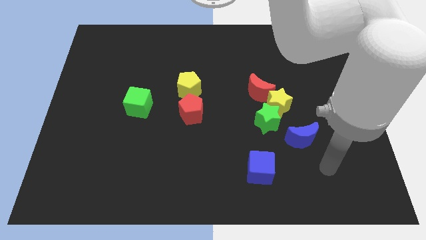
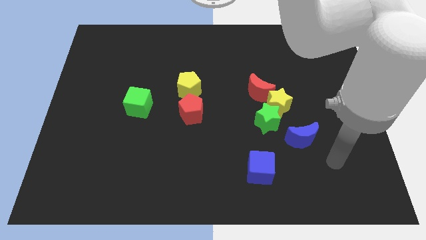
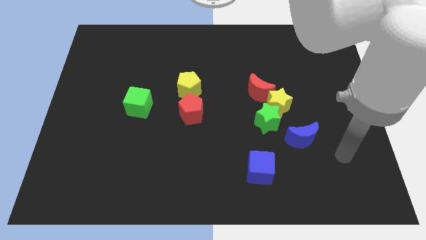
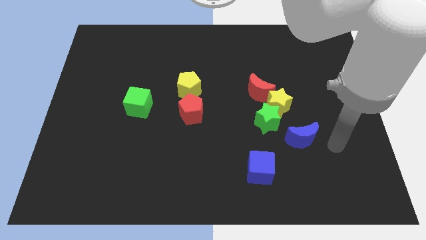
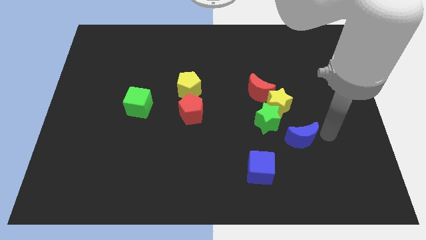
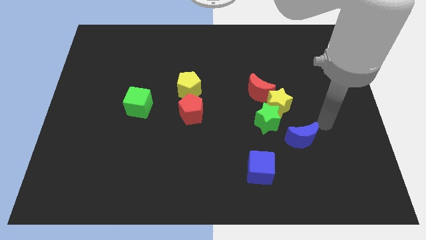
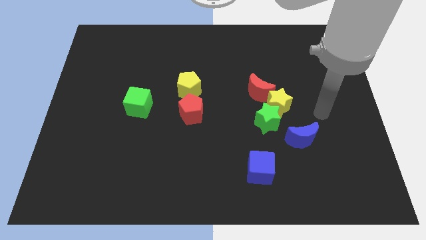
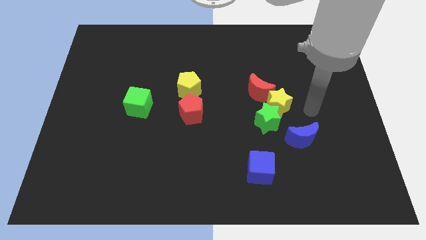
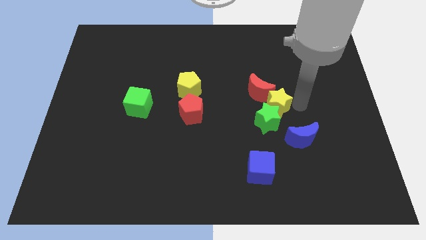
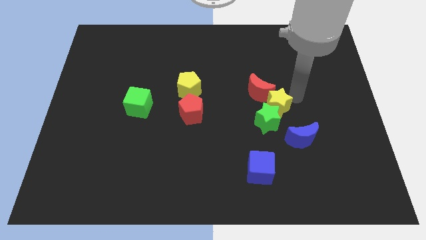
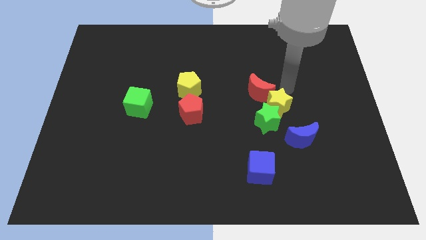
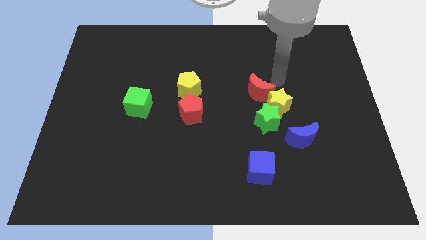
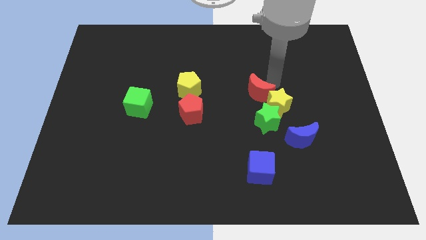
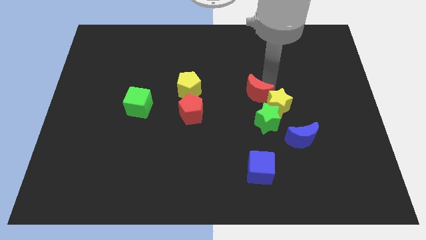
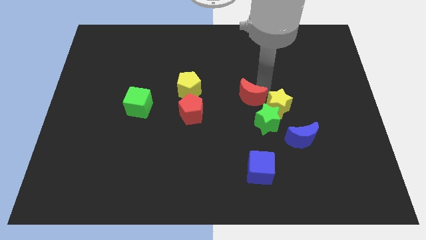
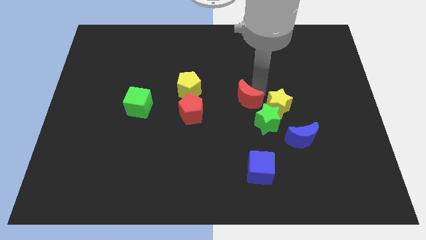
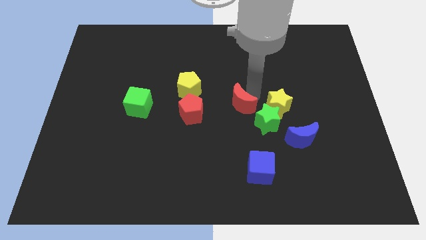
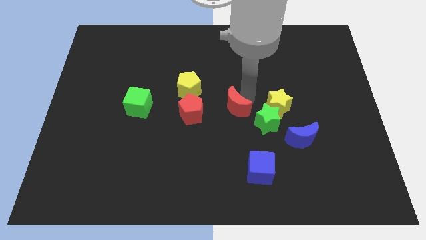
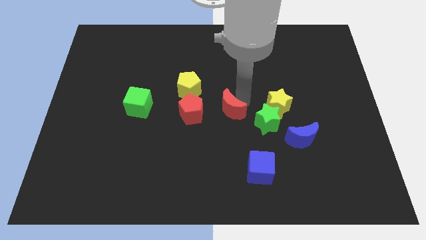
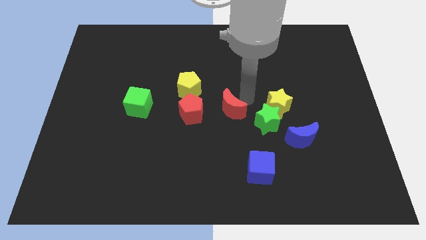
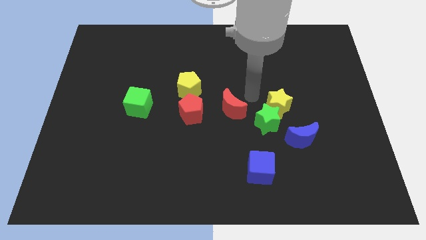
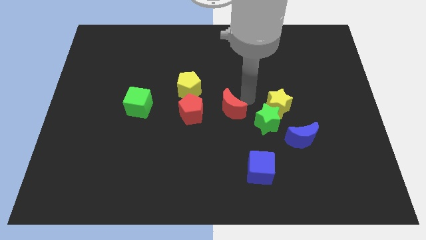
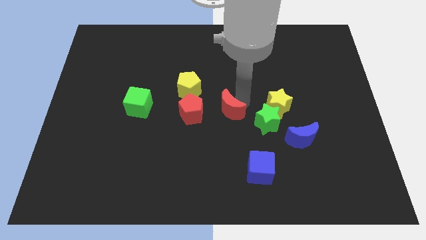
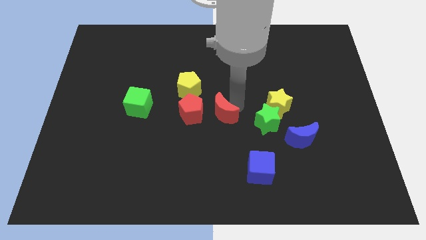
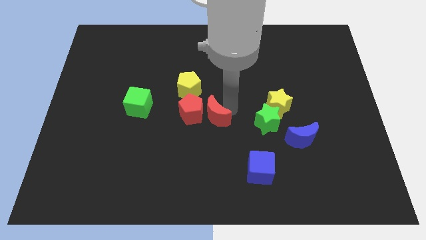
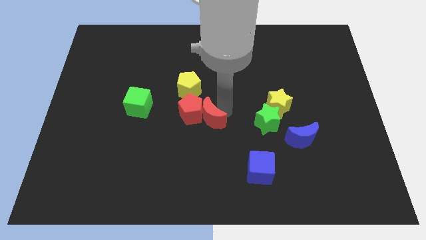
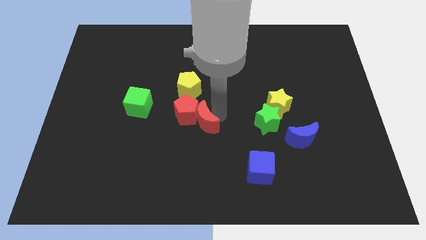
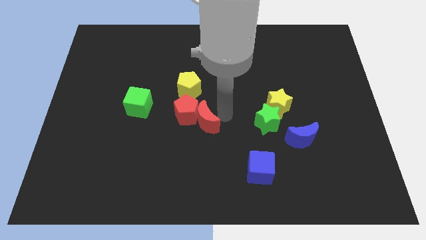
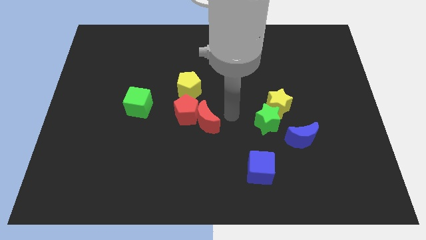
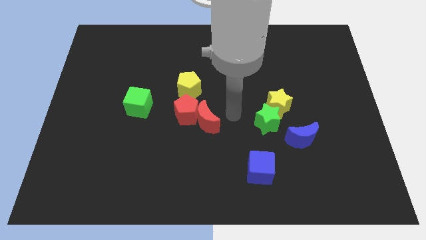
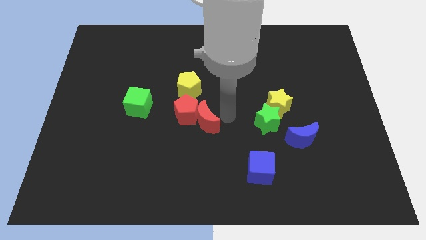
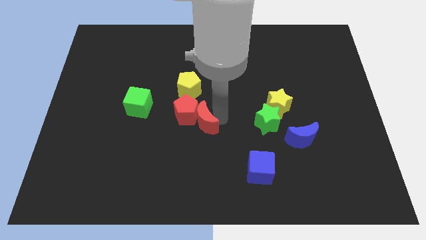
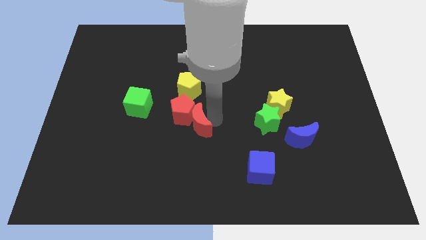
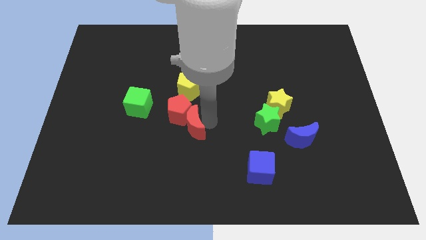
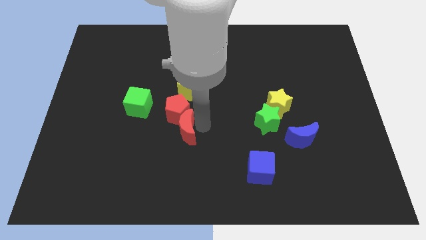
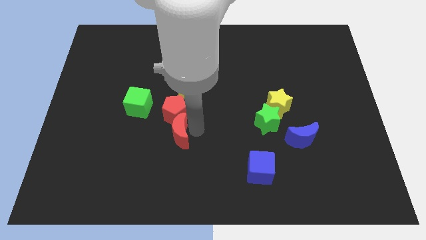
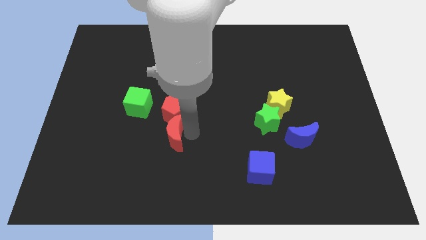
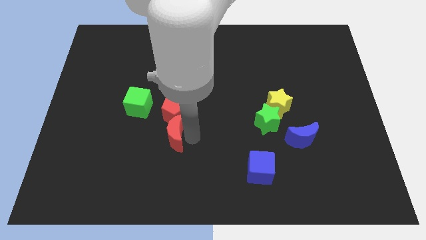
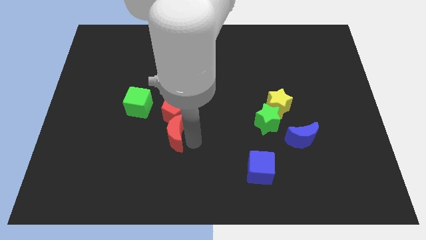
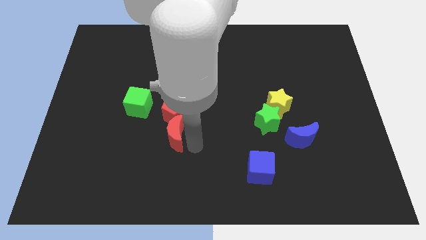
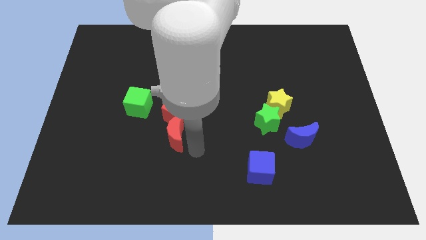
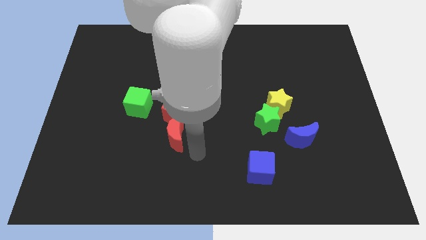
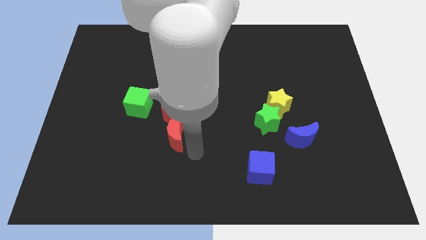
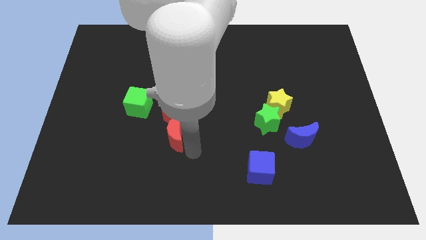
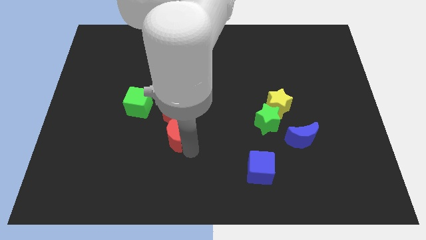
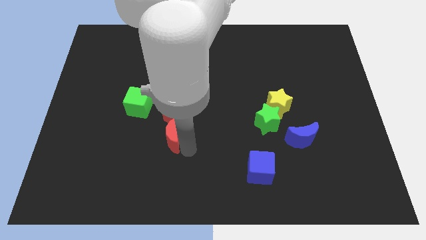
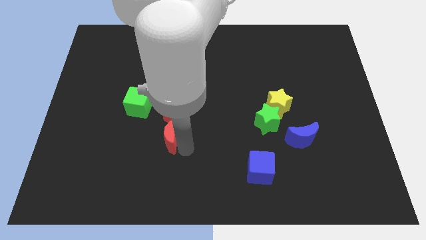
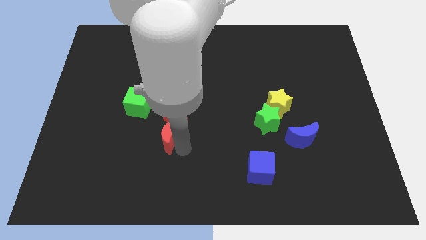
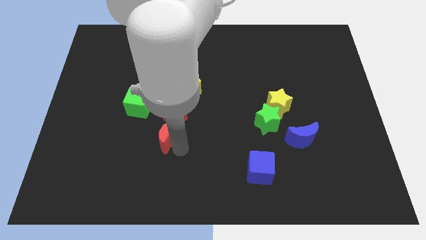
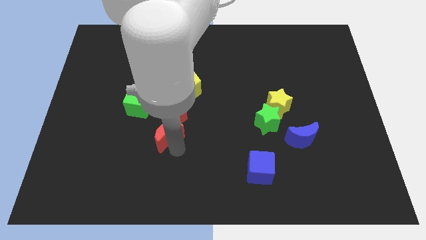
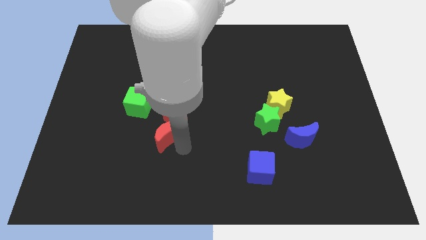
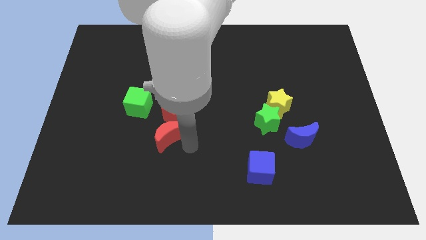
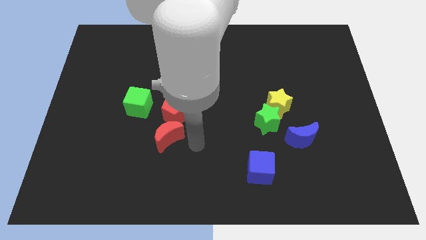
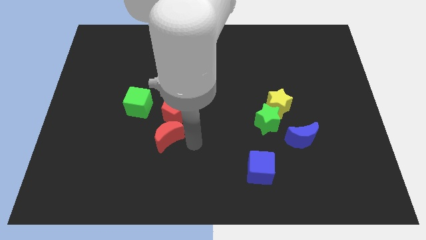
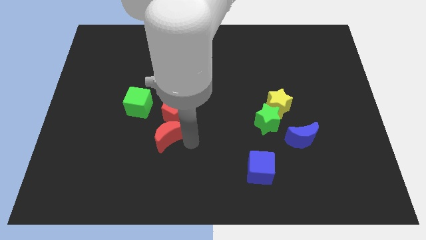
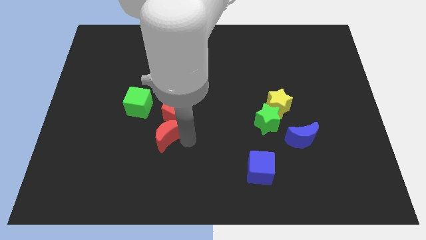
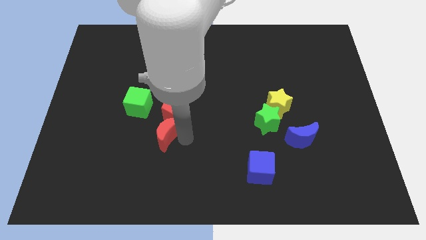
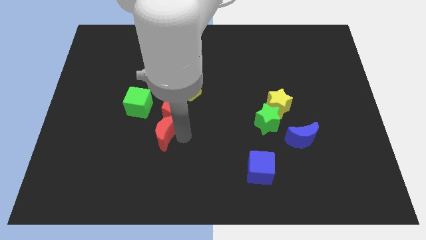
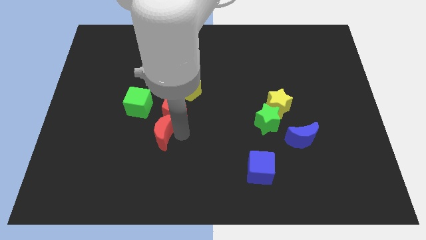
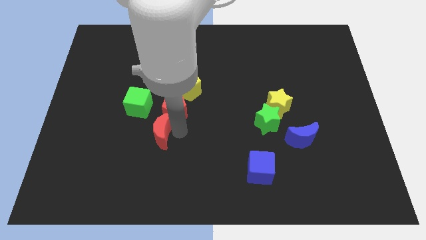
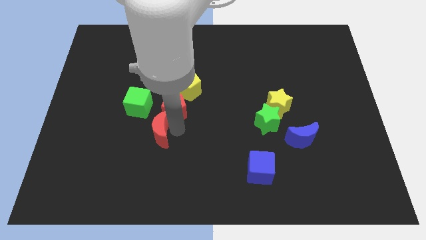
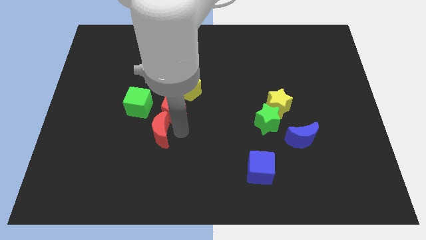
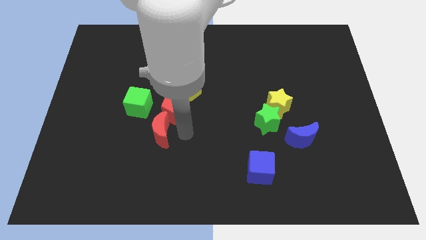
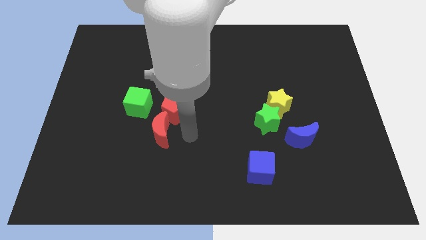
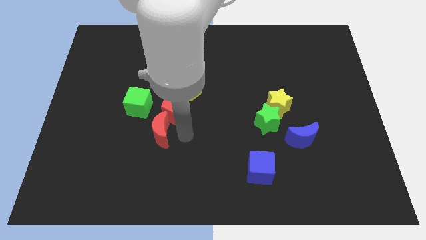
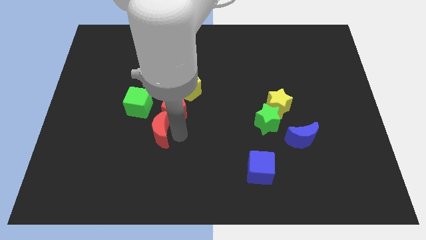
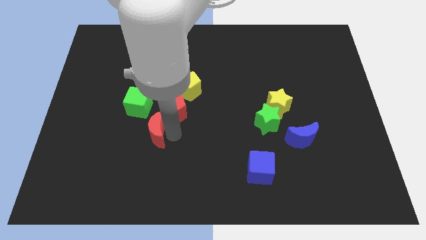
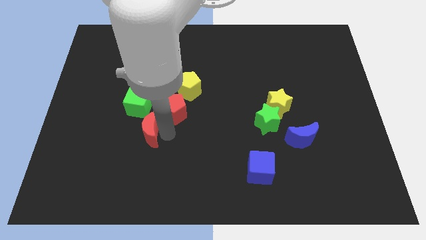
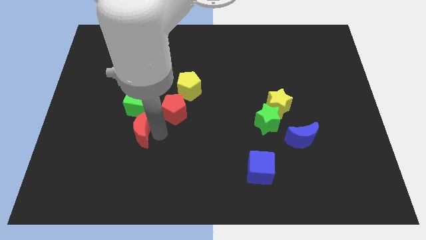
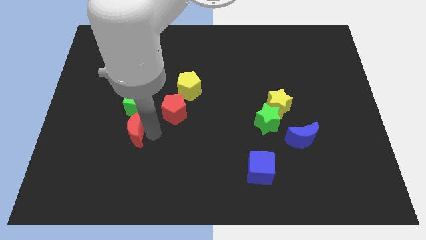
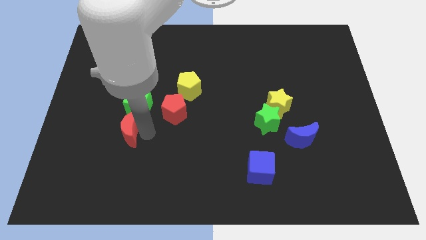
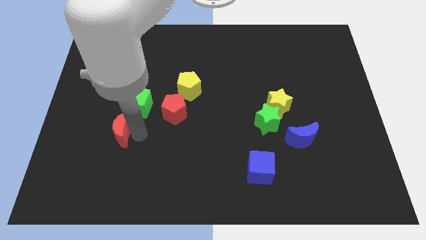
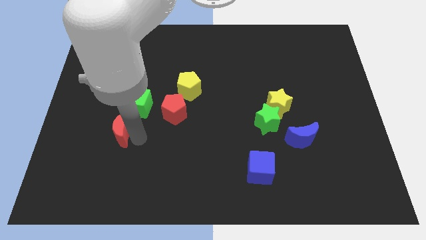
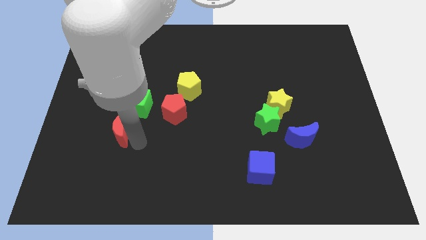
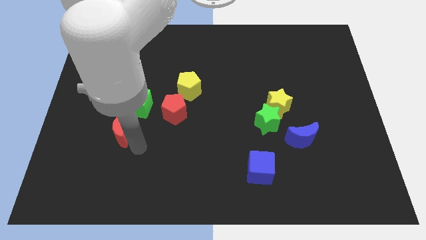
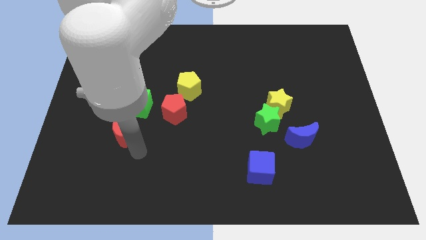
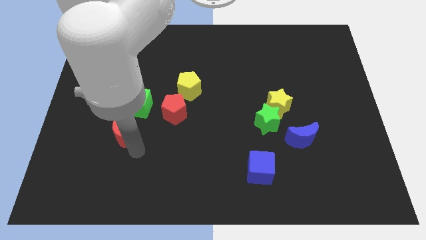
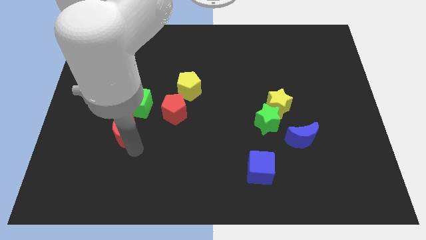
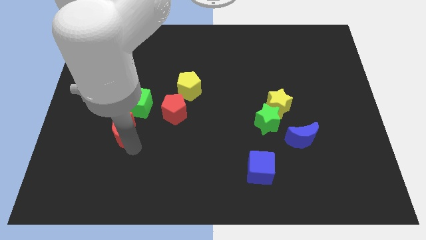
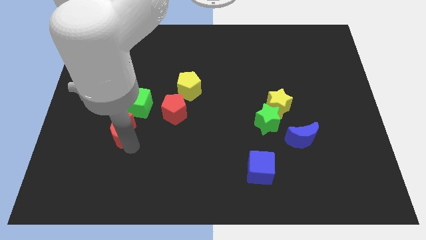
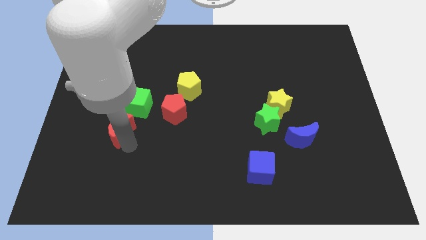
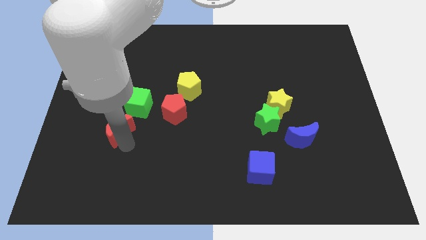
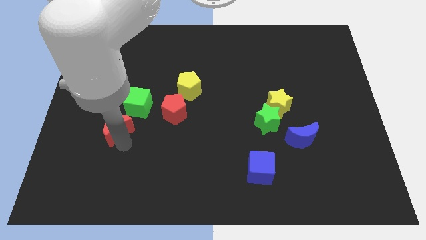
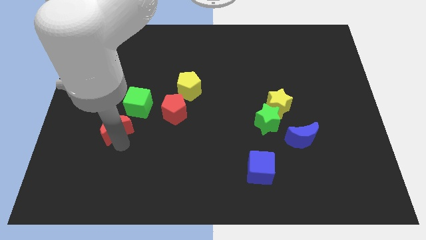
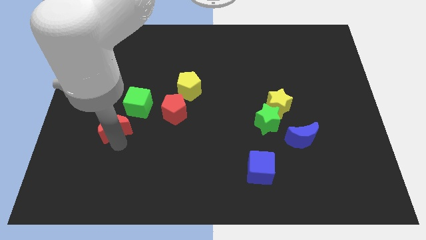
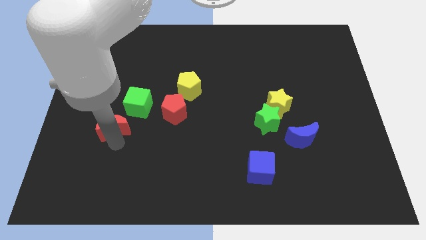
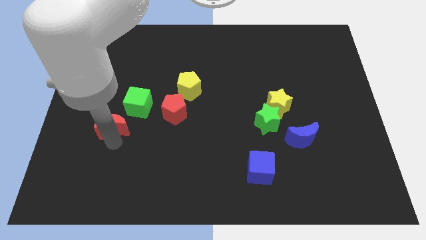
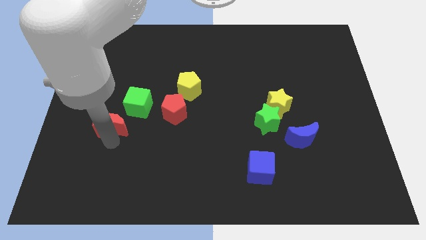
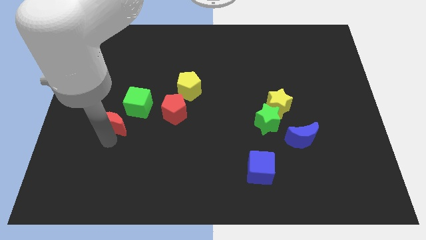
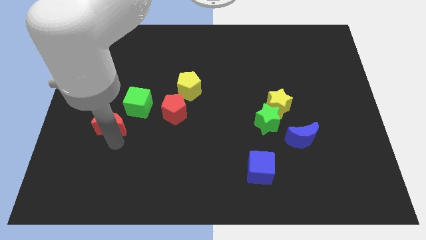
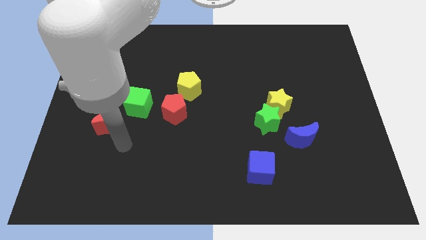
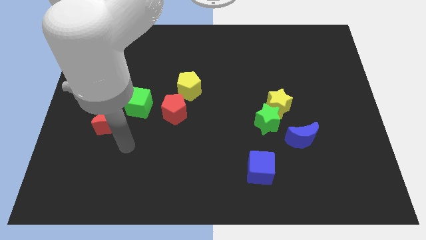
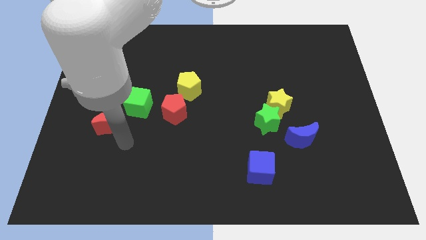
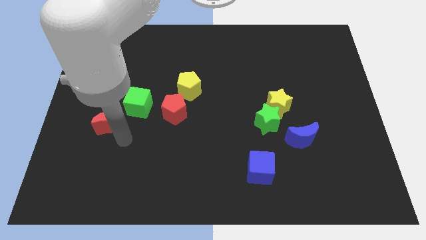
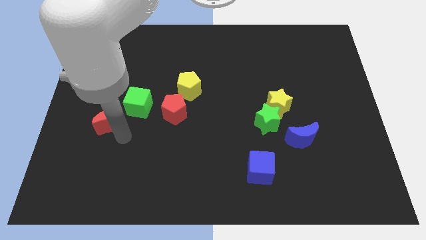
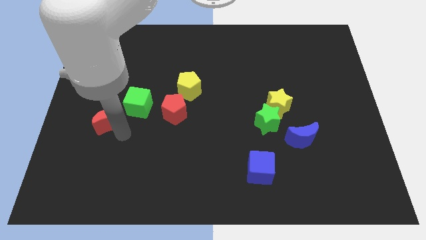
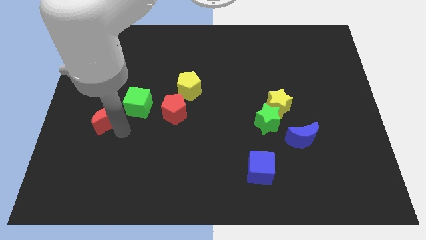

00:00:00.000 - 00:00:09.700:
move the red moon to the left of the green cube
